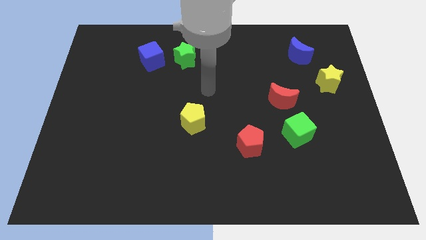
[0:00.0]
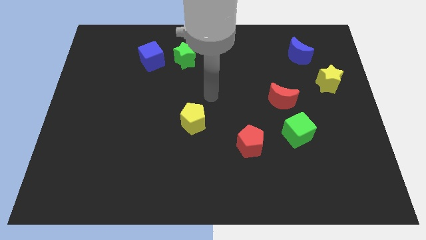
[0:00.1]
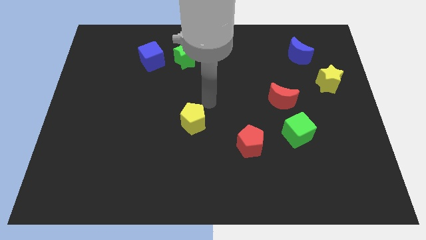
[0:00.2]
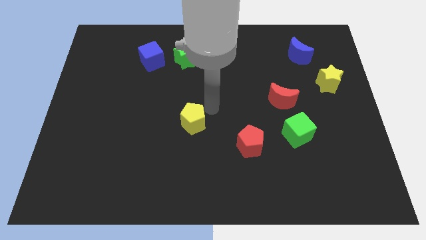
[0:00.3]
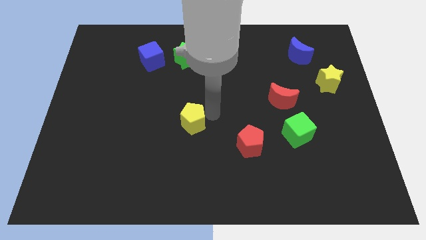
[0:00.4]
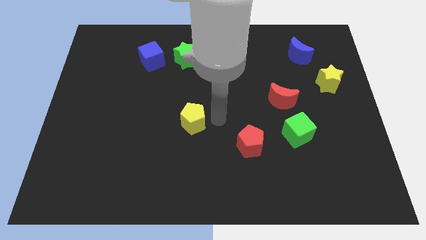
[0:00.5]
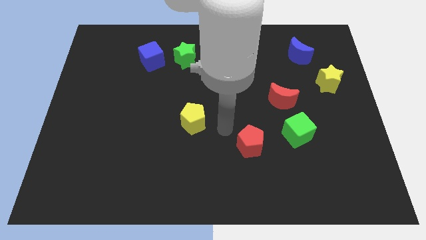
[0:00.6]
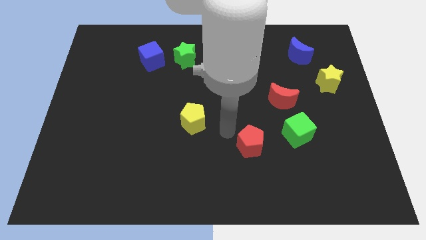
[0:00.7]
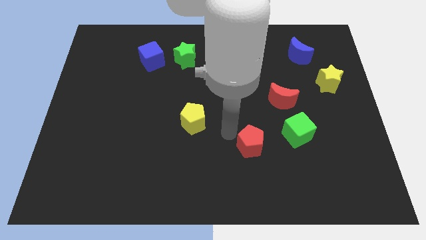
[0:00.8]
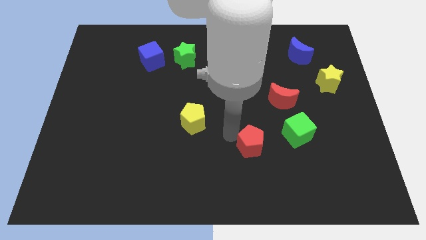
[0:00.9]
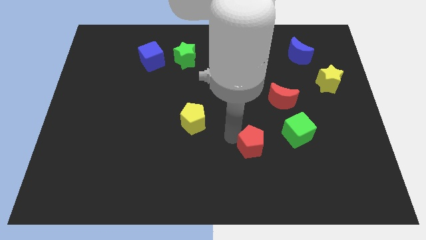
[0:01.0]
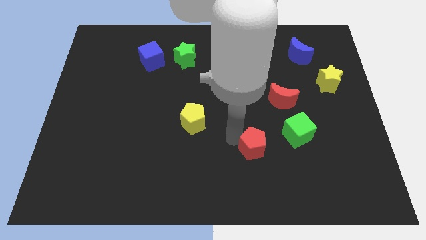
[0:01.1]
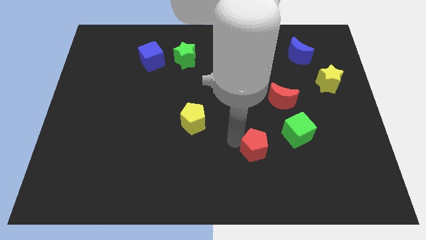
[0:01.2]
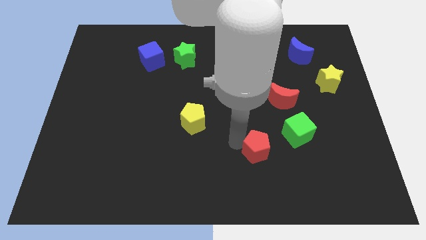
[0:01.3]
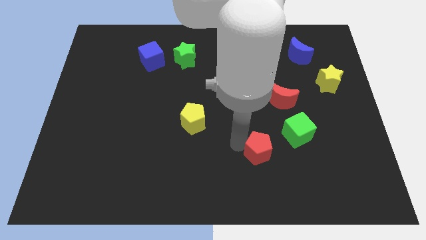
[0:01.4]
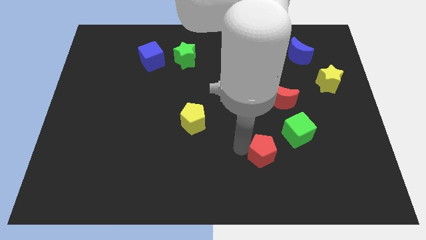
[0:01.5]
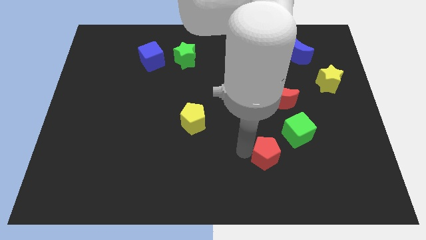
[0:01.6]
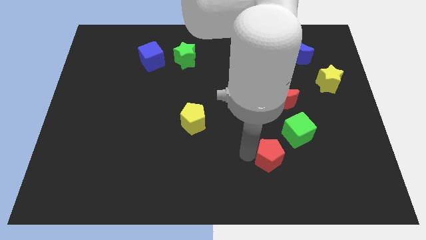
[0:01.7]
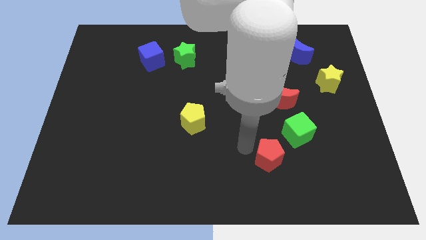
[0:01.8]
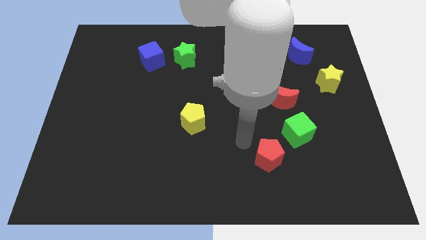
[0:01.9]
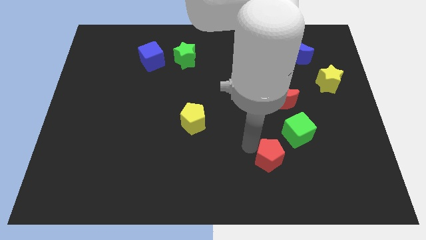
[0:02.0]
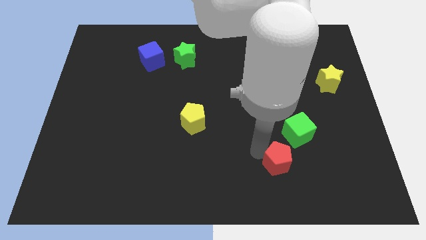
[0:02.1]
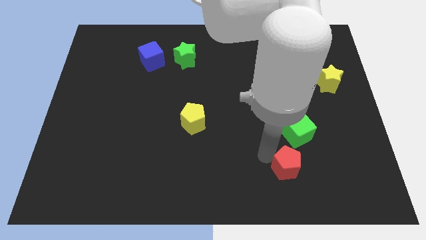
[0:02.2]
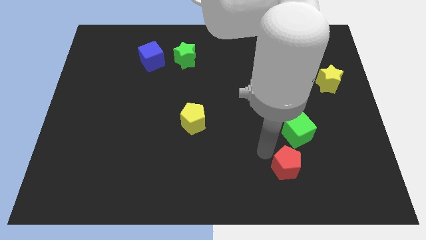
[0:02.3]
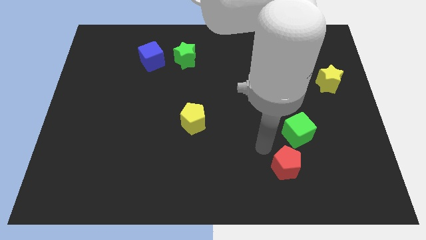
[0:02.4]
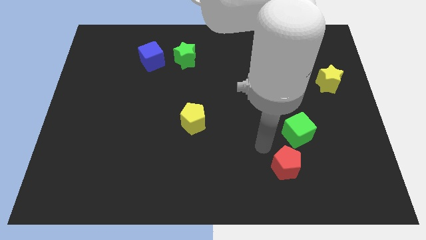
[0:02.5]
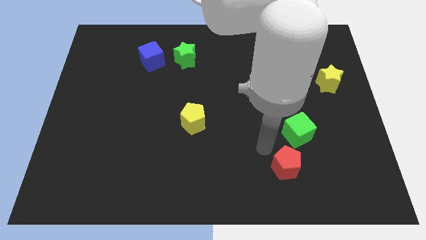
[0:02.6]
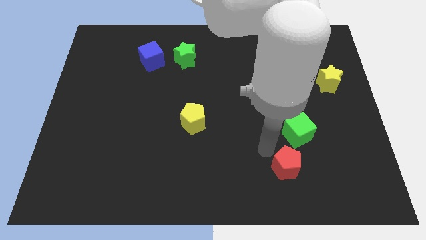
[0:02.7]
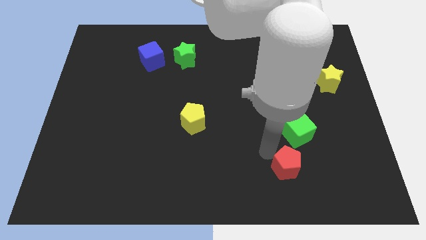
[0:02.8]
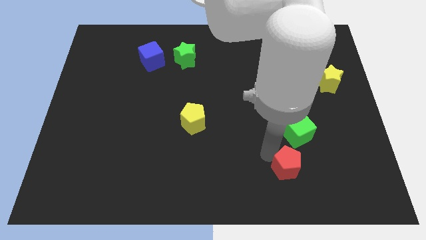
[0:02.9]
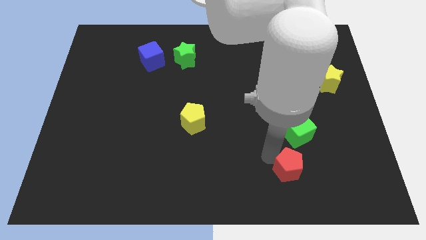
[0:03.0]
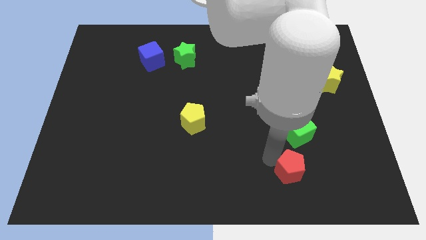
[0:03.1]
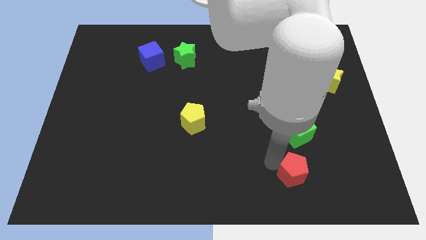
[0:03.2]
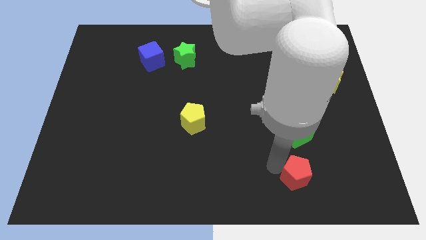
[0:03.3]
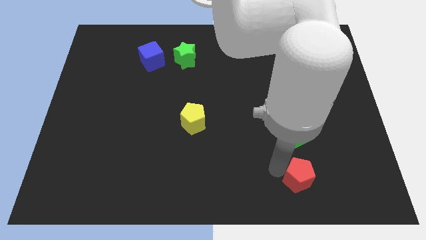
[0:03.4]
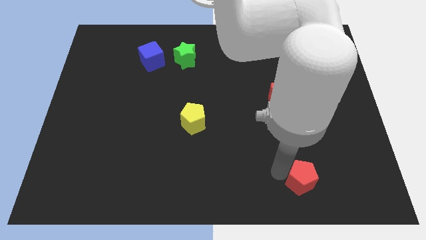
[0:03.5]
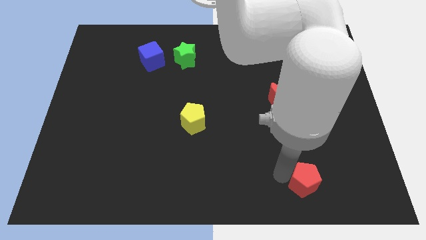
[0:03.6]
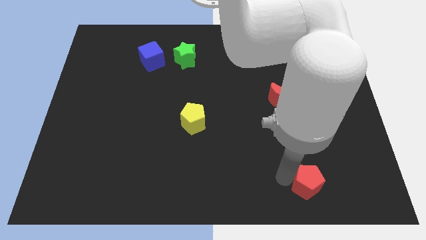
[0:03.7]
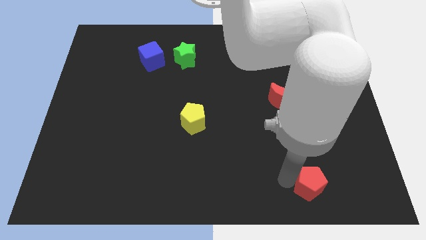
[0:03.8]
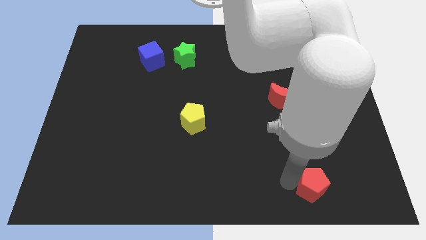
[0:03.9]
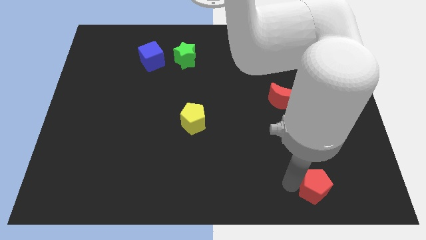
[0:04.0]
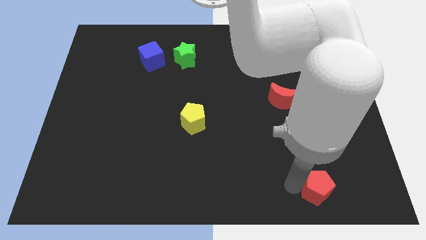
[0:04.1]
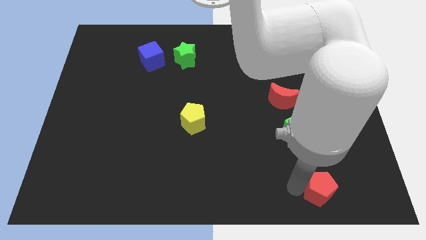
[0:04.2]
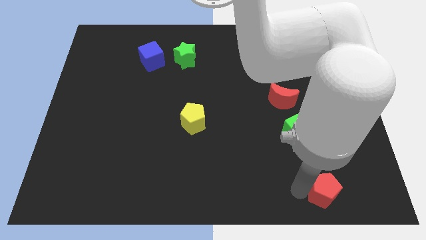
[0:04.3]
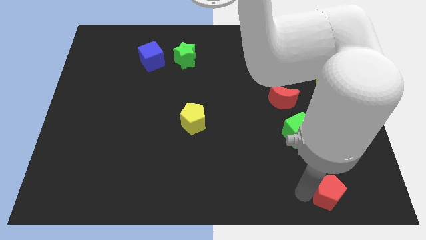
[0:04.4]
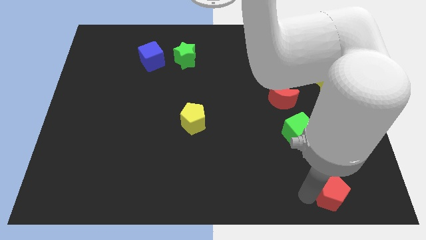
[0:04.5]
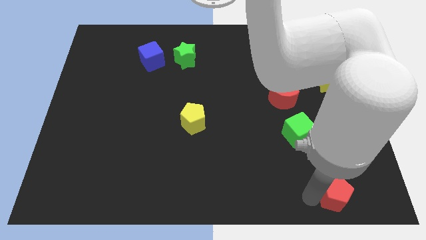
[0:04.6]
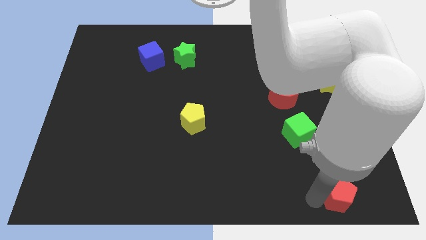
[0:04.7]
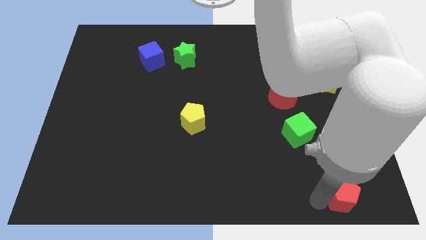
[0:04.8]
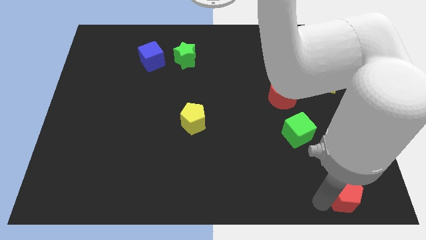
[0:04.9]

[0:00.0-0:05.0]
slide the red pentagon to the bottom right

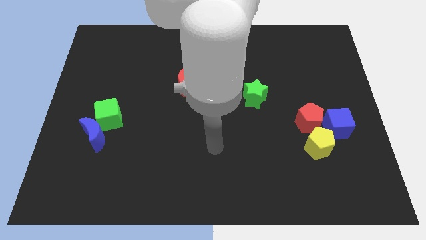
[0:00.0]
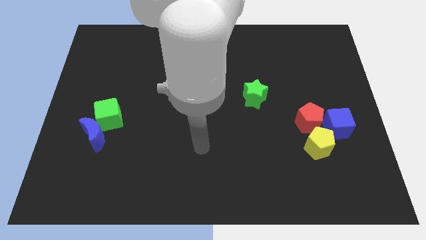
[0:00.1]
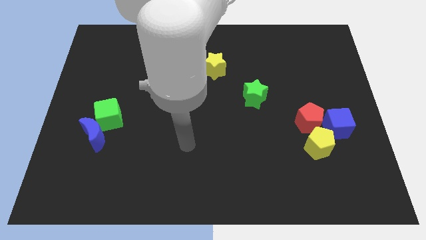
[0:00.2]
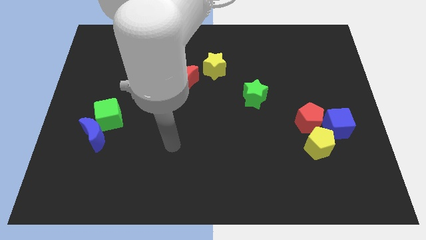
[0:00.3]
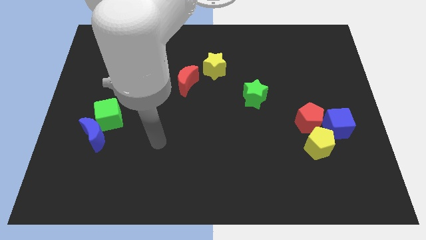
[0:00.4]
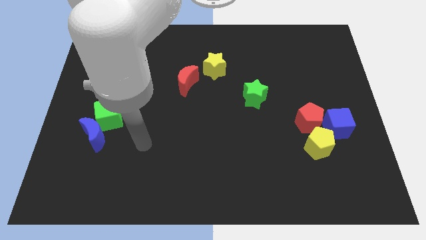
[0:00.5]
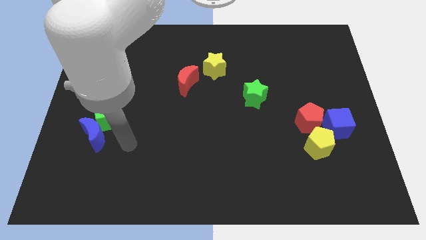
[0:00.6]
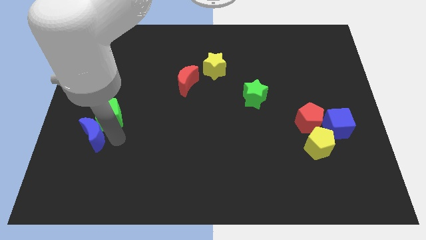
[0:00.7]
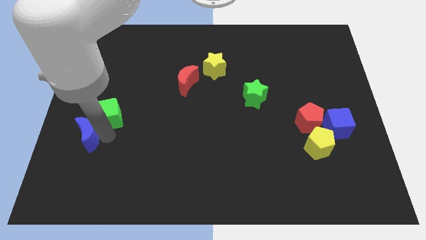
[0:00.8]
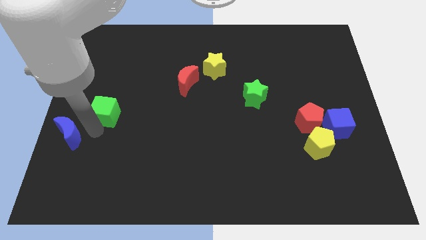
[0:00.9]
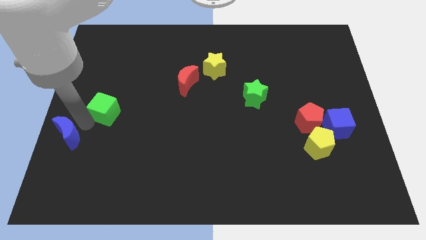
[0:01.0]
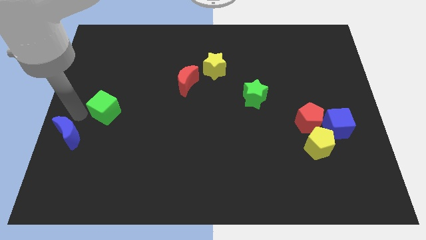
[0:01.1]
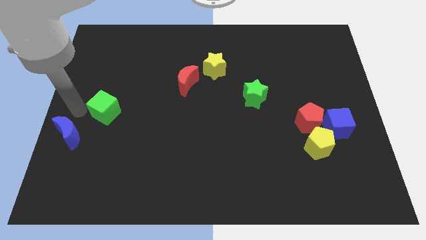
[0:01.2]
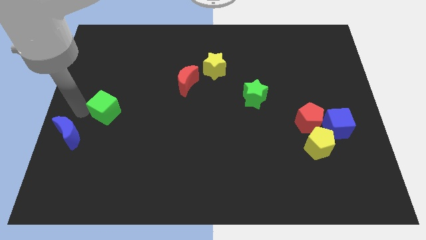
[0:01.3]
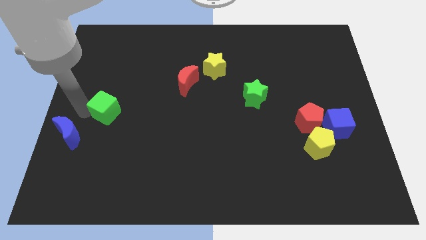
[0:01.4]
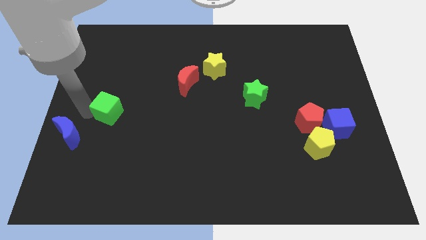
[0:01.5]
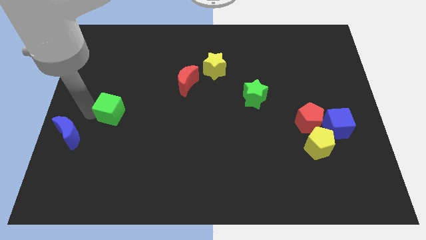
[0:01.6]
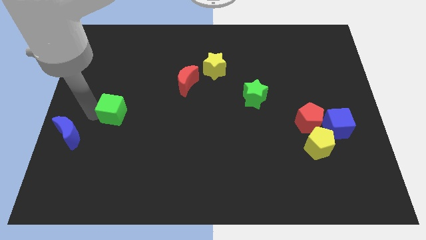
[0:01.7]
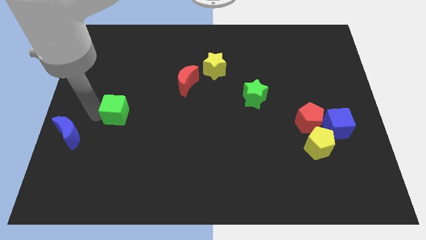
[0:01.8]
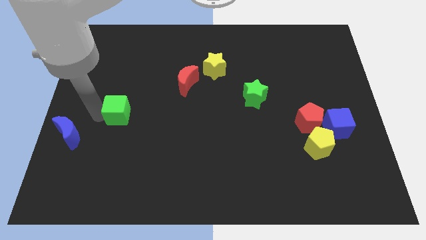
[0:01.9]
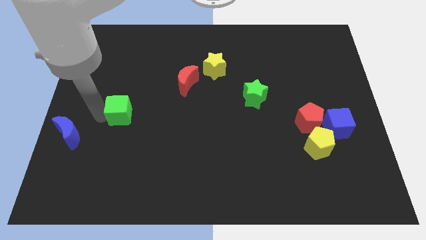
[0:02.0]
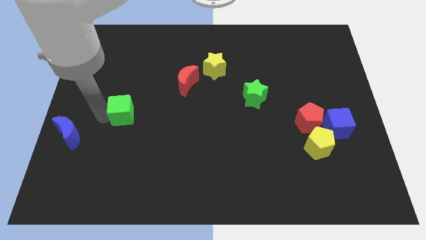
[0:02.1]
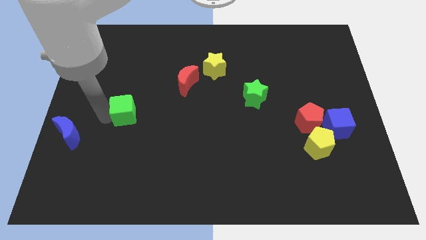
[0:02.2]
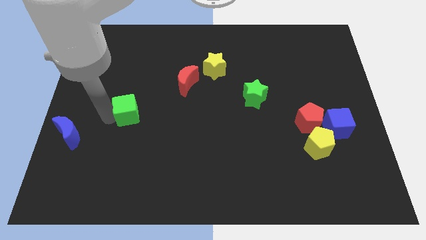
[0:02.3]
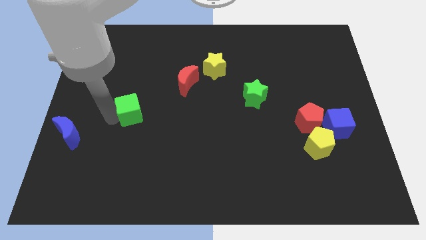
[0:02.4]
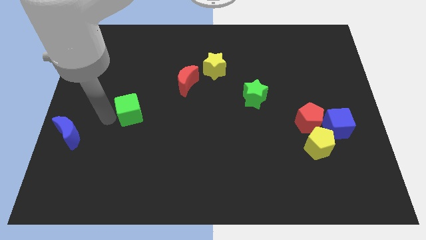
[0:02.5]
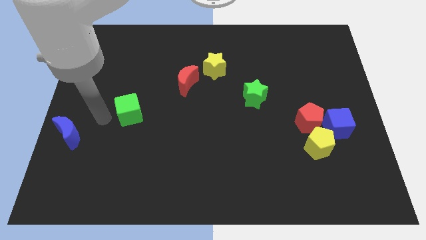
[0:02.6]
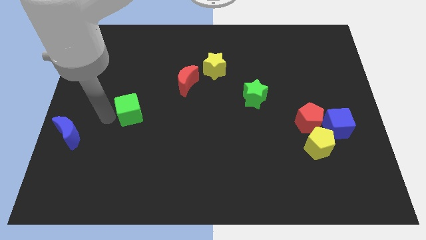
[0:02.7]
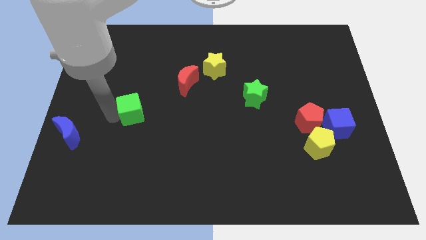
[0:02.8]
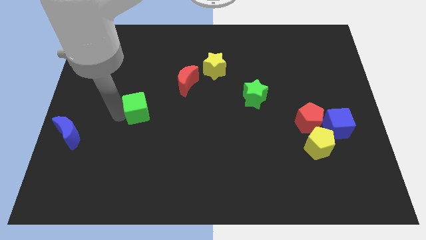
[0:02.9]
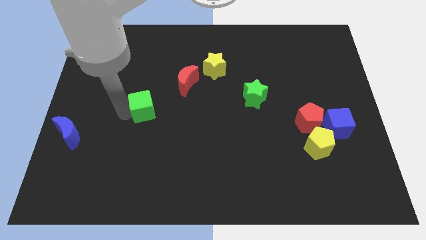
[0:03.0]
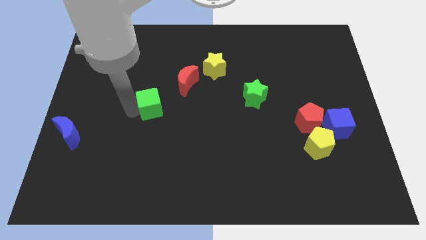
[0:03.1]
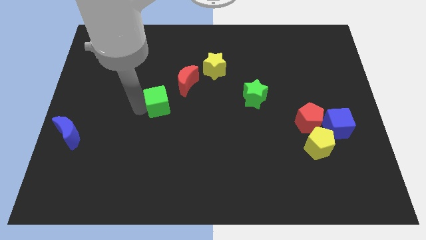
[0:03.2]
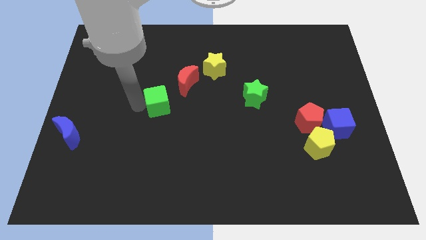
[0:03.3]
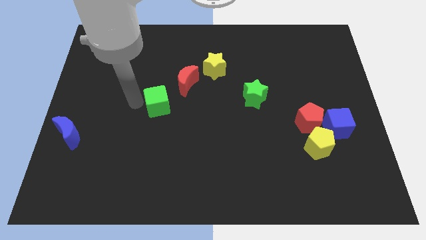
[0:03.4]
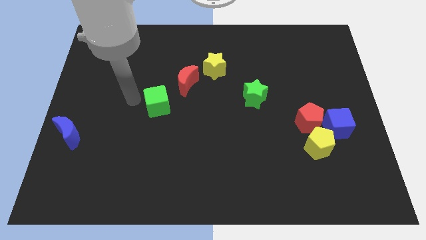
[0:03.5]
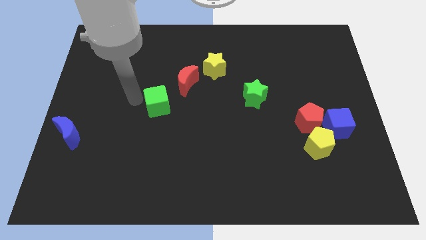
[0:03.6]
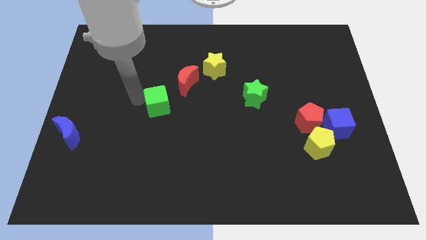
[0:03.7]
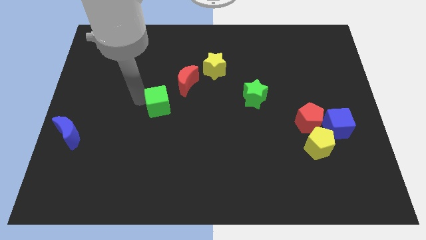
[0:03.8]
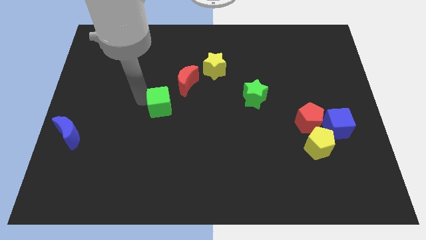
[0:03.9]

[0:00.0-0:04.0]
push the green cube to the center
